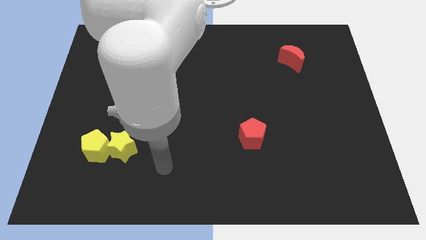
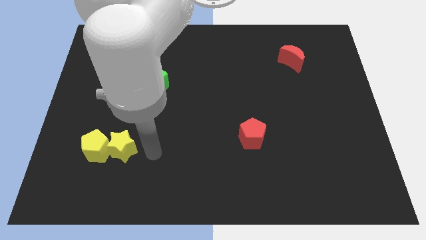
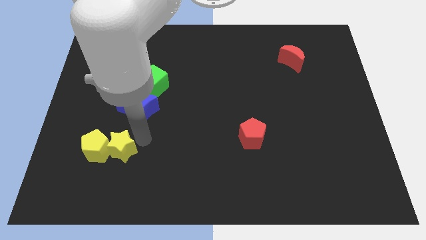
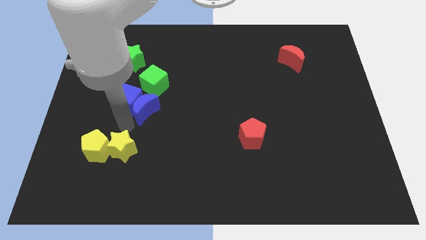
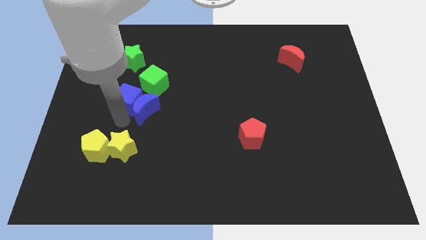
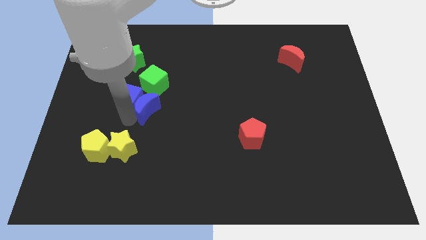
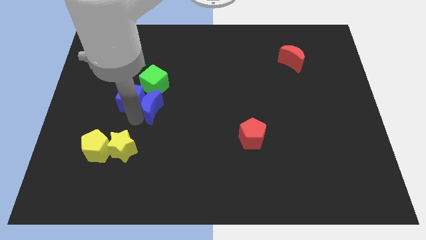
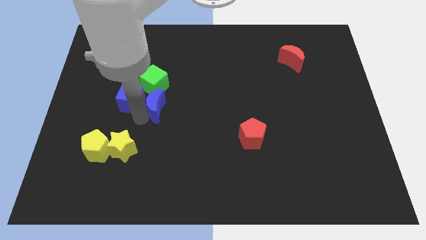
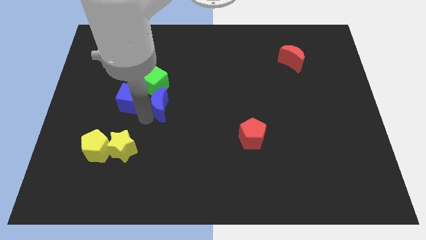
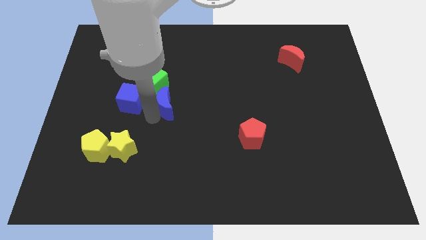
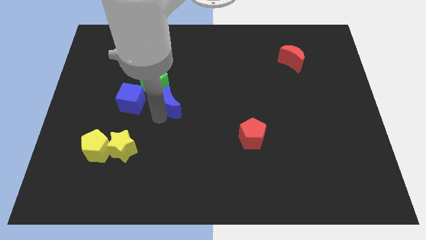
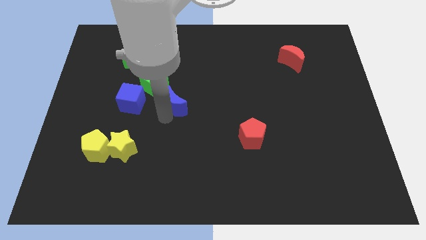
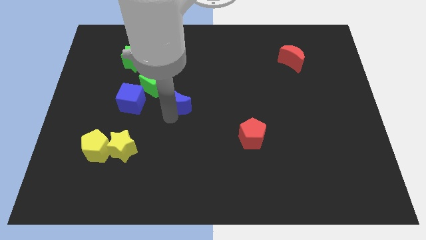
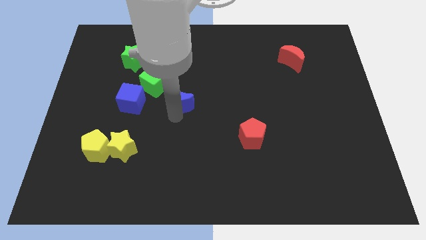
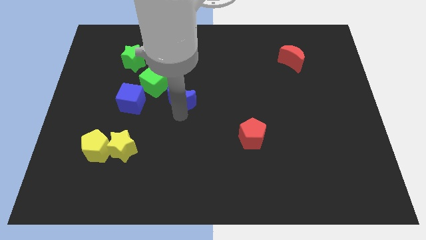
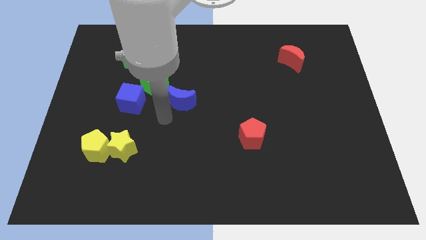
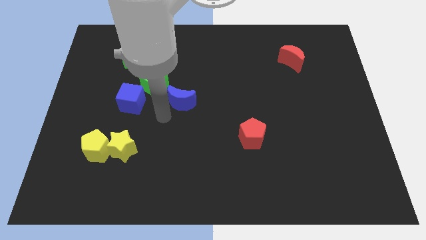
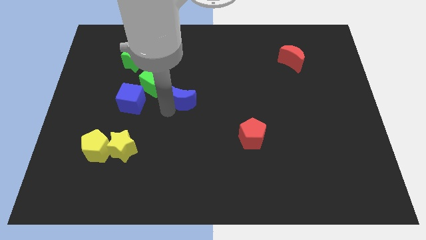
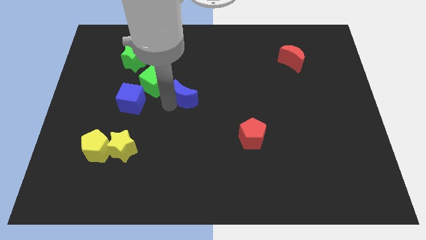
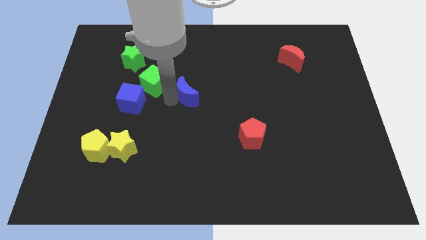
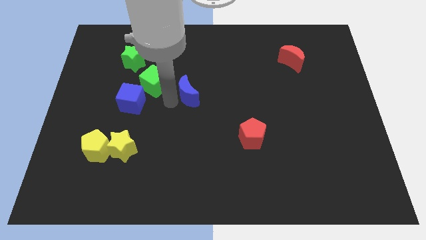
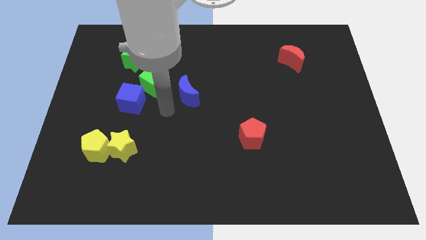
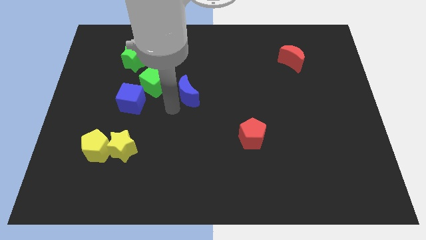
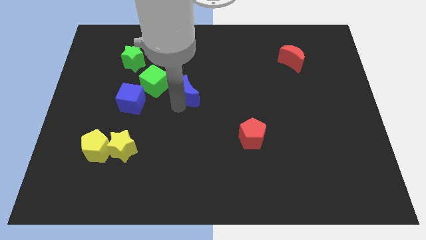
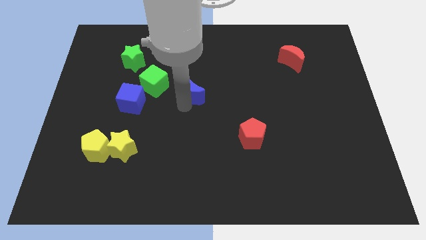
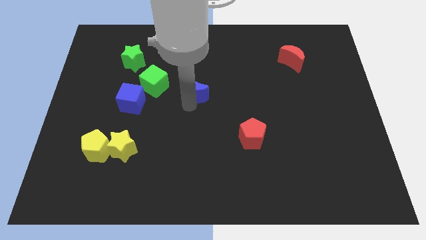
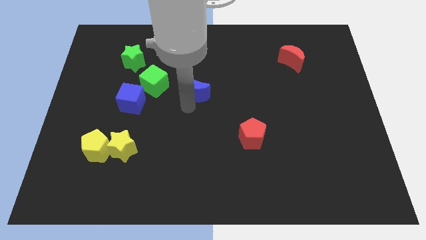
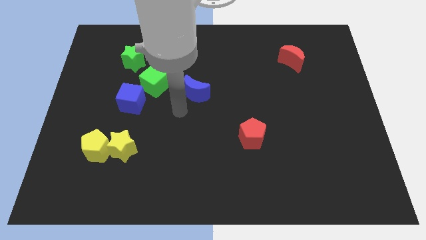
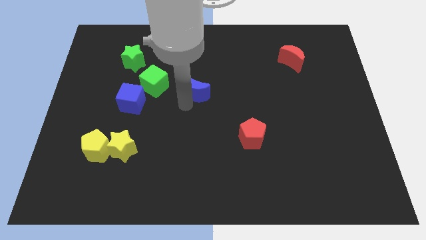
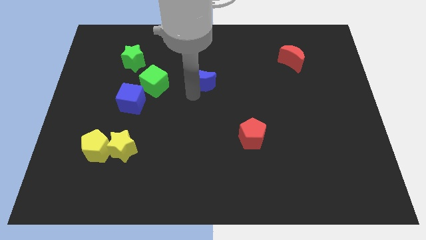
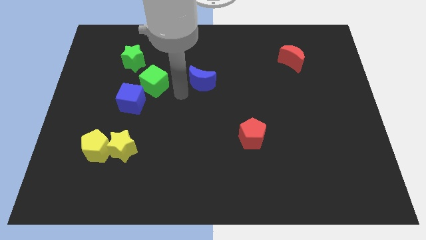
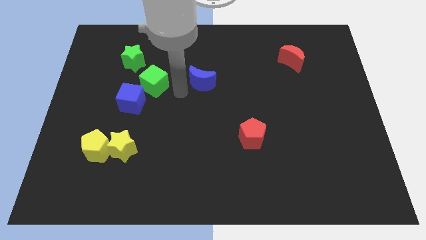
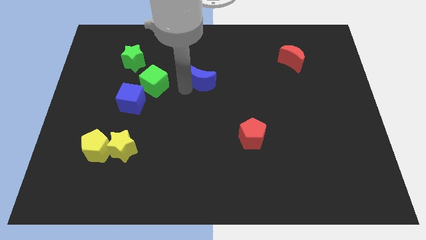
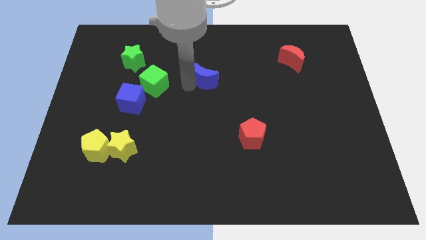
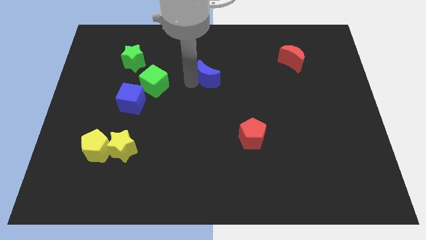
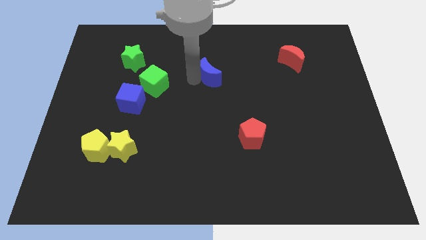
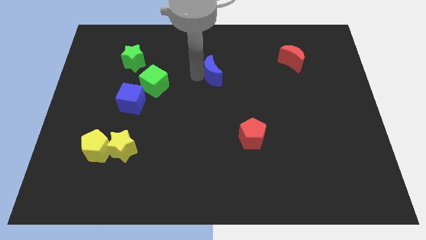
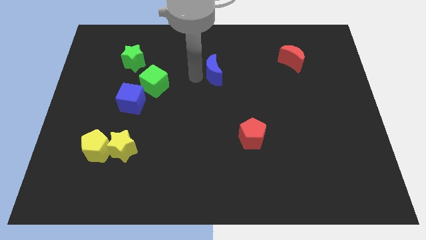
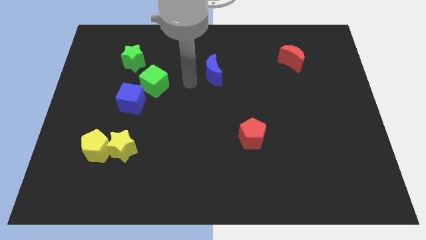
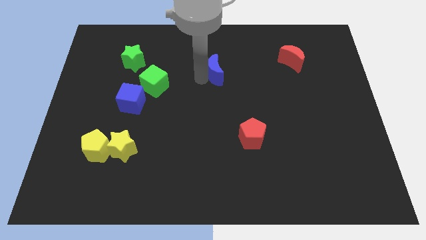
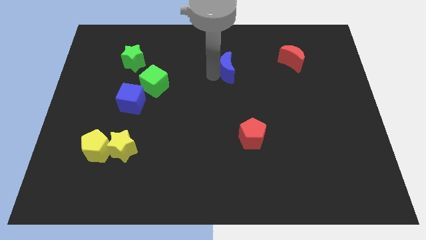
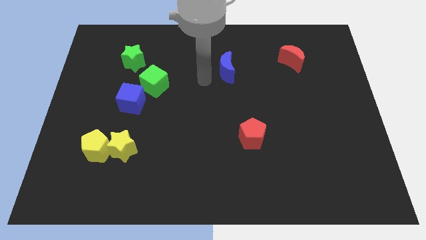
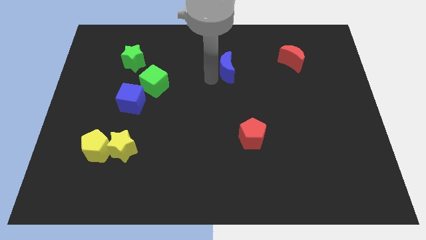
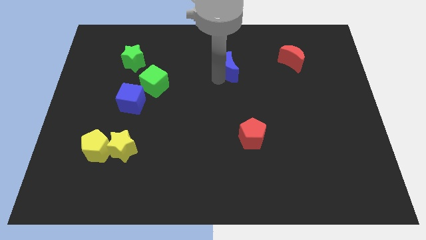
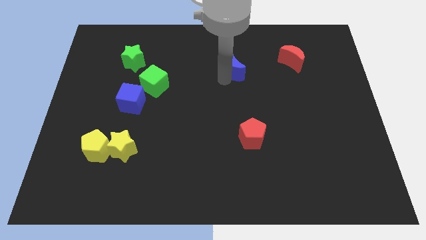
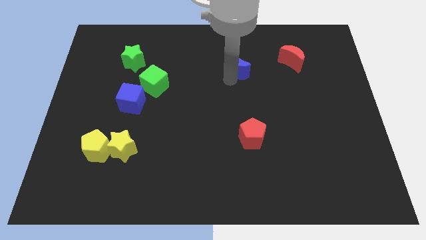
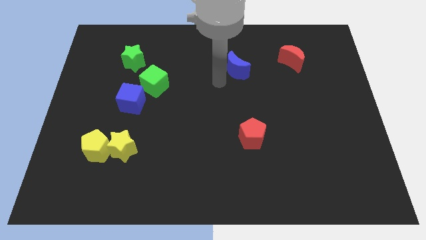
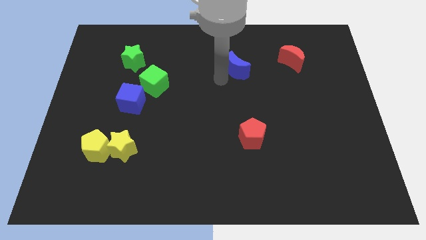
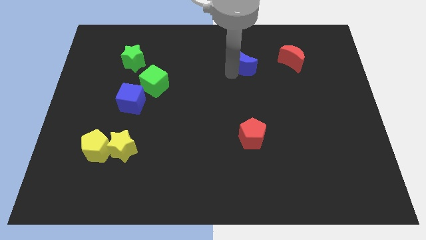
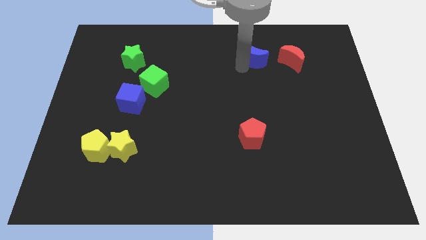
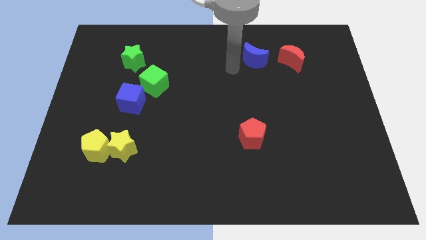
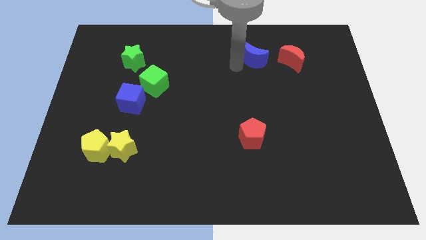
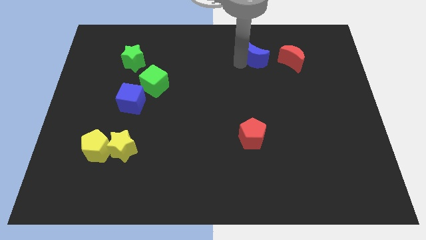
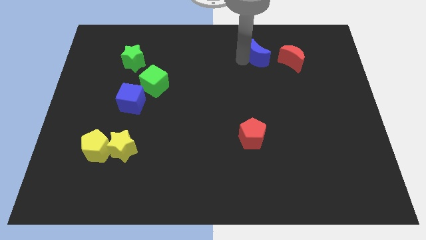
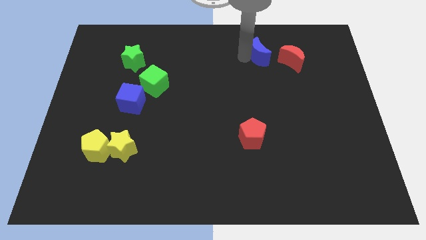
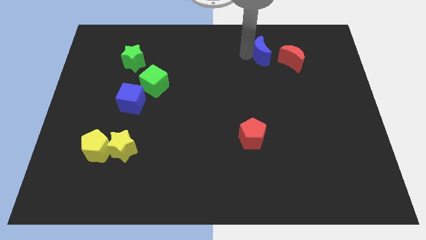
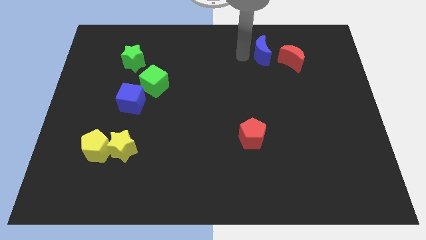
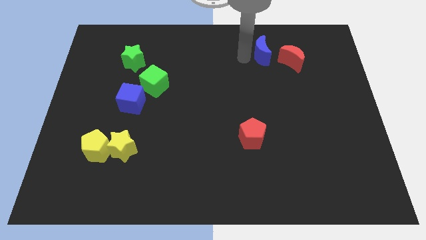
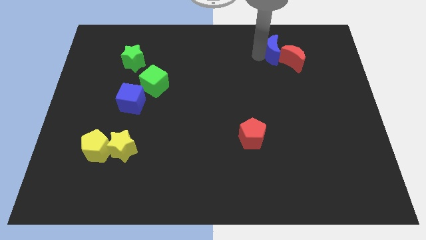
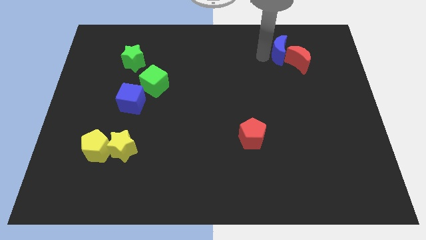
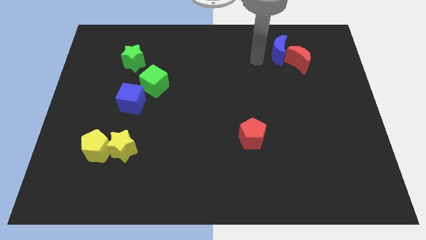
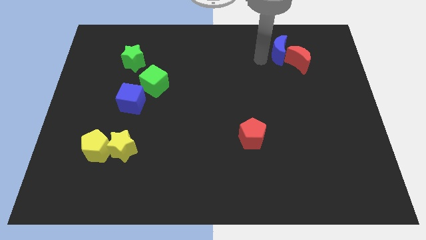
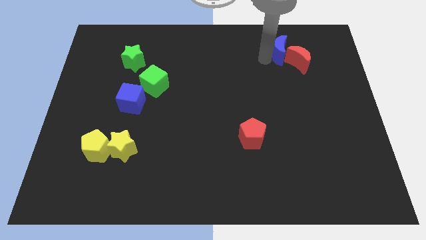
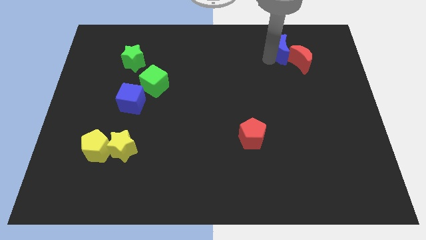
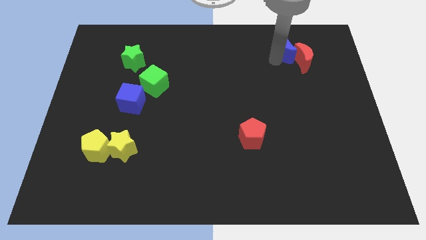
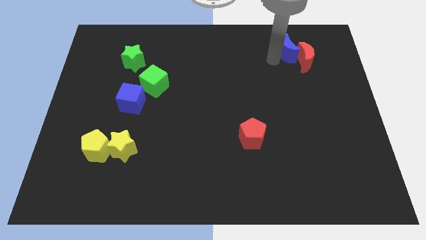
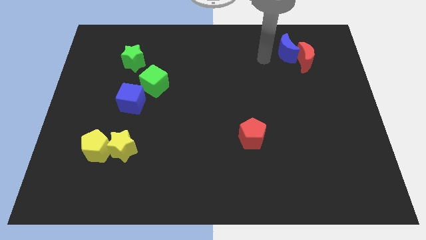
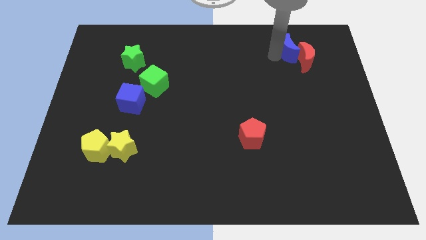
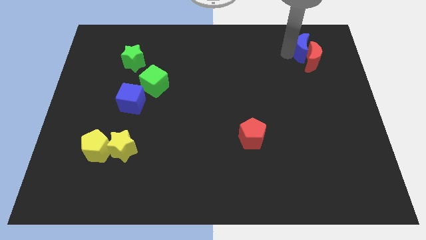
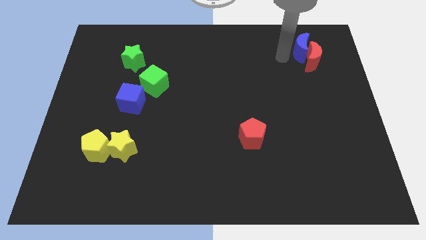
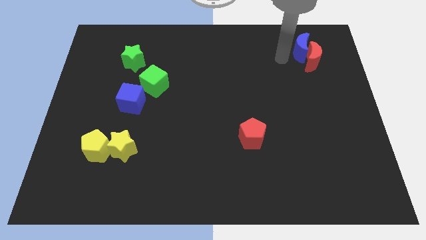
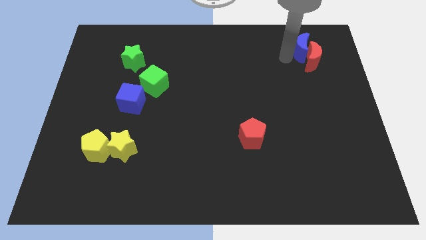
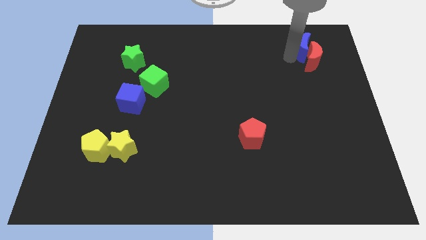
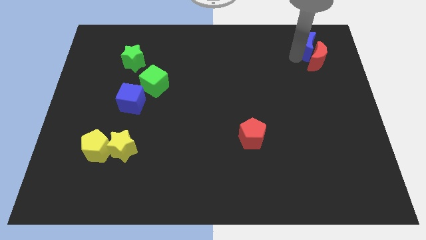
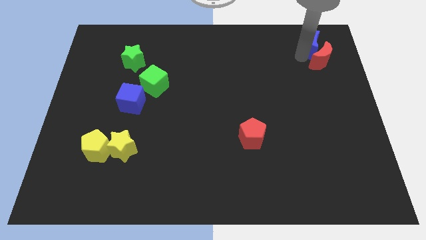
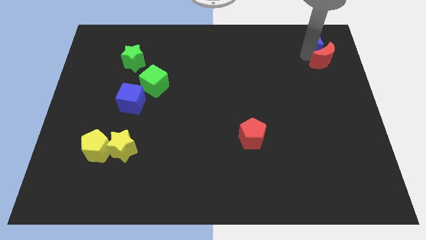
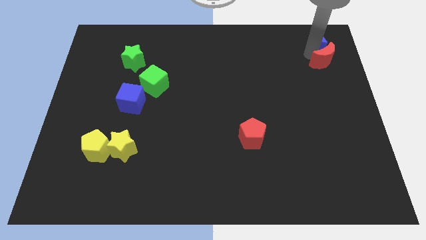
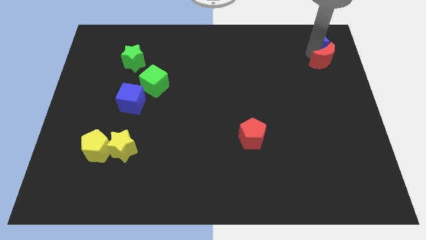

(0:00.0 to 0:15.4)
move the blue moon to the top right corner

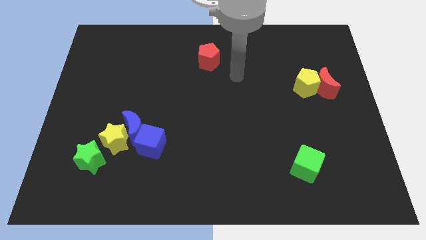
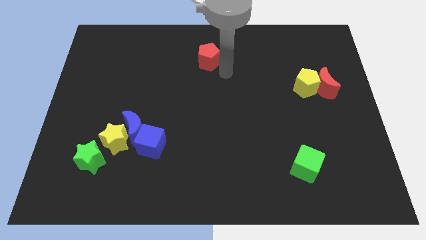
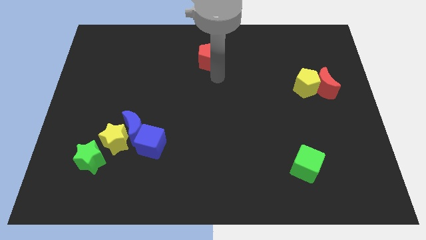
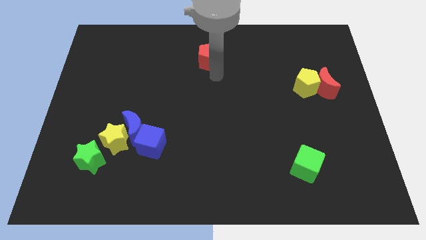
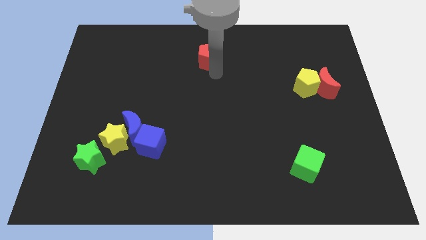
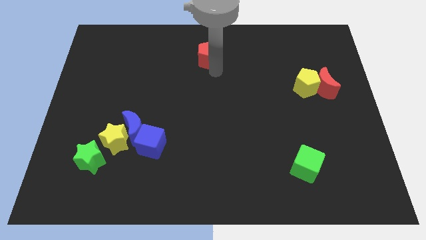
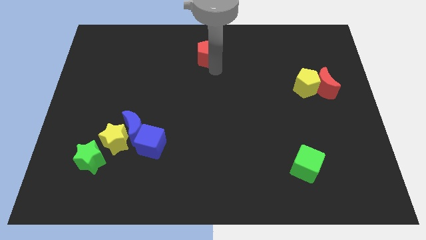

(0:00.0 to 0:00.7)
push the red pentagon to the towards your base
